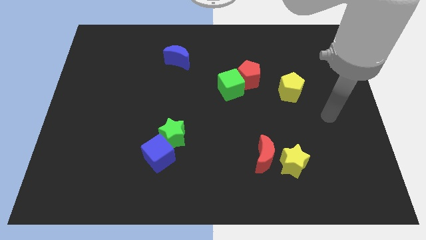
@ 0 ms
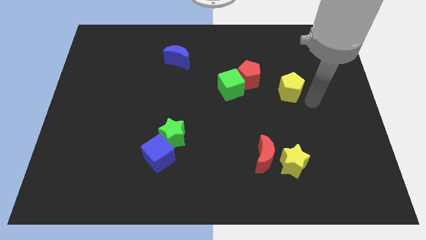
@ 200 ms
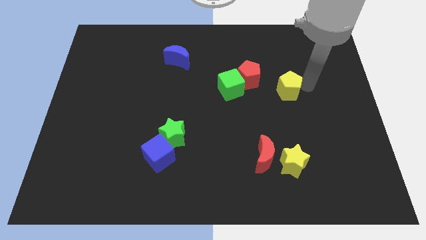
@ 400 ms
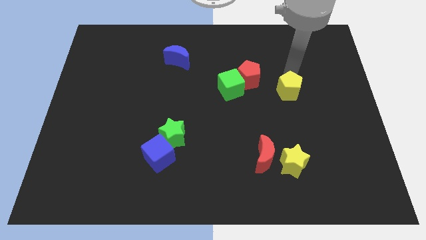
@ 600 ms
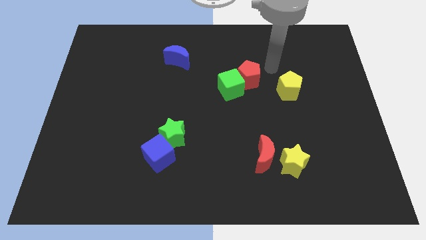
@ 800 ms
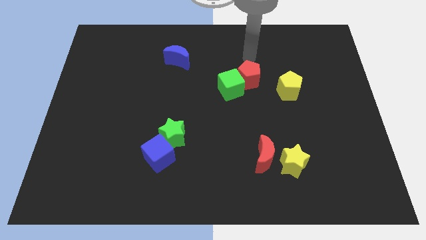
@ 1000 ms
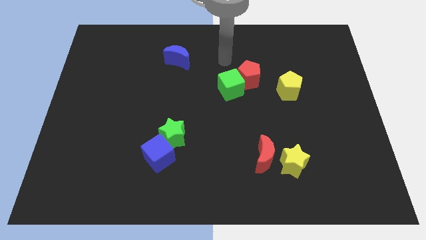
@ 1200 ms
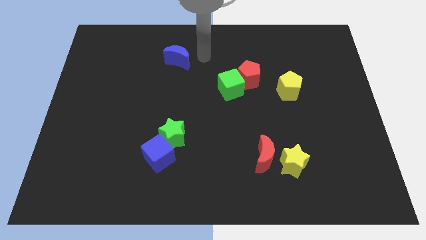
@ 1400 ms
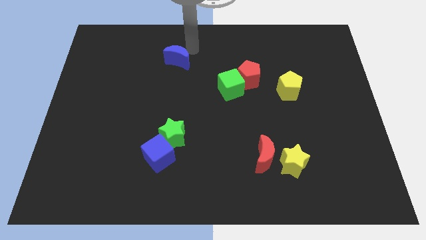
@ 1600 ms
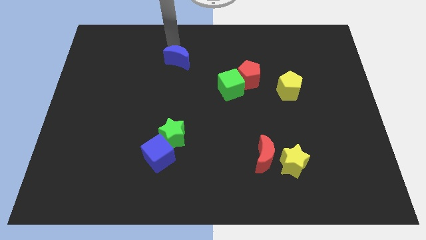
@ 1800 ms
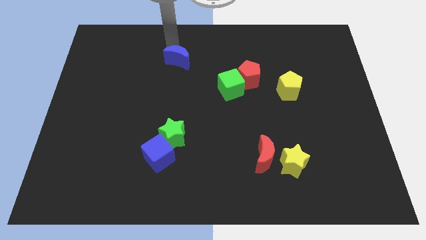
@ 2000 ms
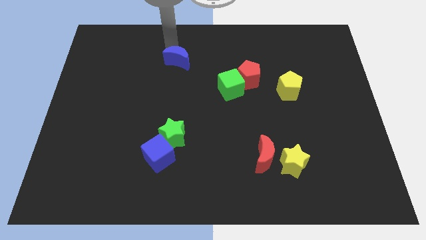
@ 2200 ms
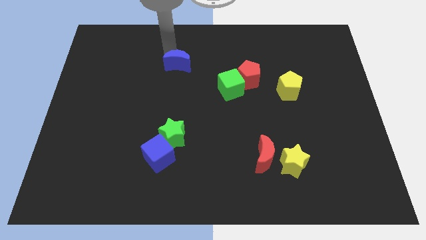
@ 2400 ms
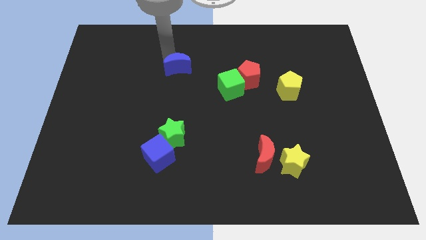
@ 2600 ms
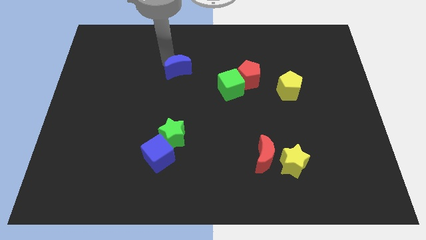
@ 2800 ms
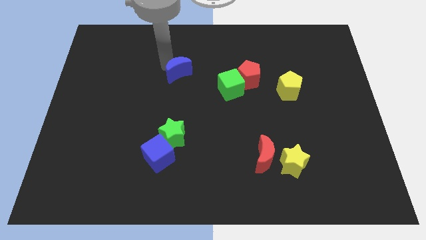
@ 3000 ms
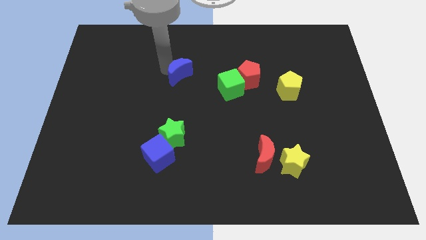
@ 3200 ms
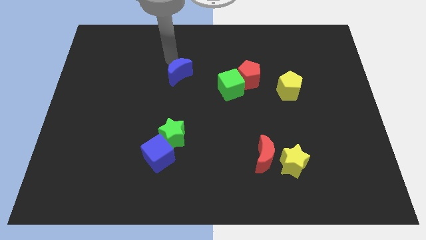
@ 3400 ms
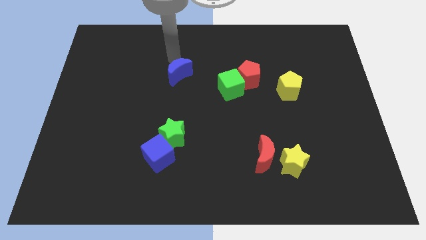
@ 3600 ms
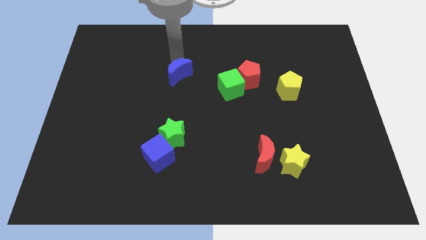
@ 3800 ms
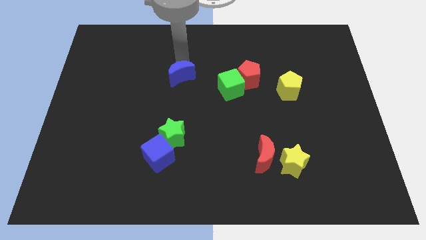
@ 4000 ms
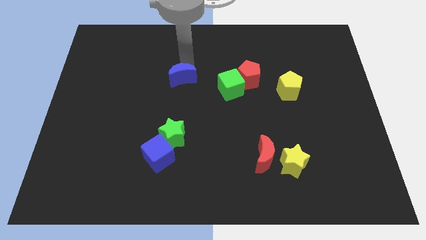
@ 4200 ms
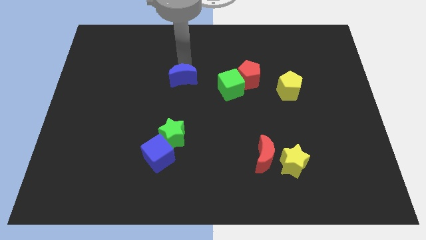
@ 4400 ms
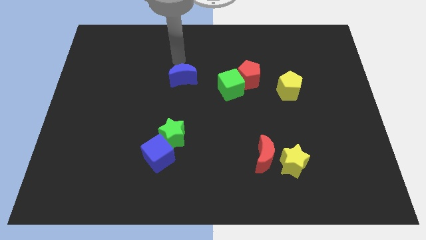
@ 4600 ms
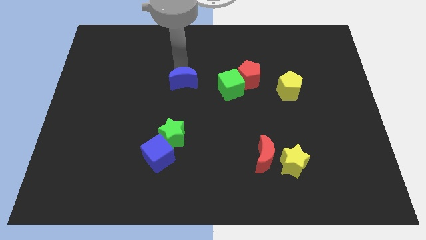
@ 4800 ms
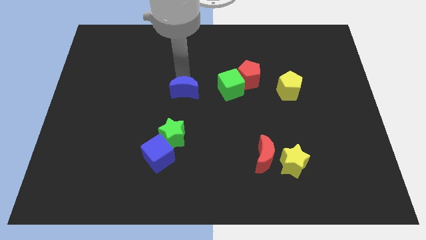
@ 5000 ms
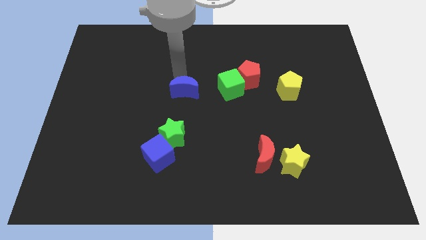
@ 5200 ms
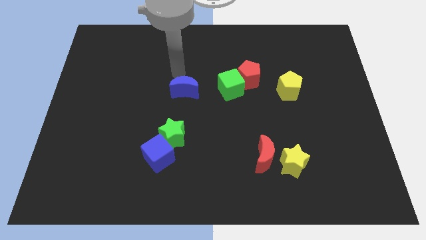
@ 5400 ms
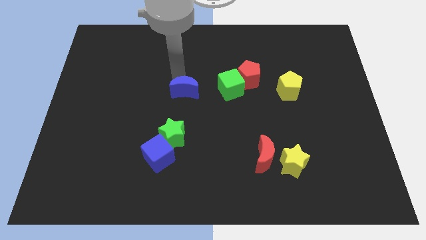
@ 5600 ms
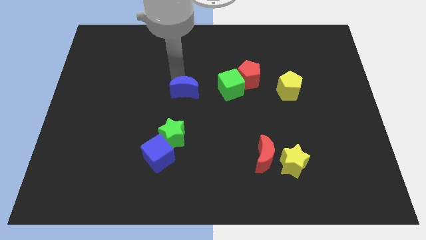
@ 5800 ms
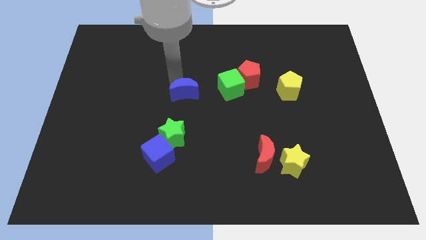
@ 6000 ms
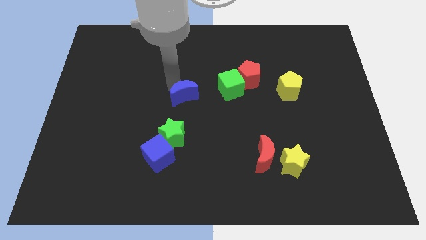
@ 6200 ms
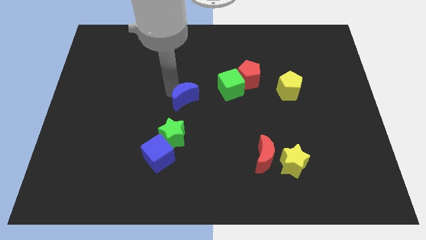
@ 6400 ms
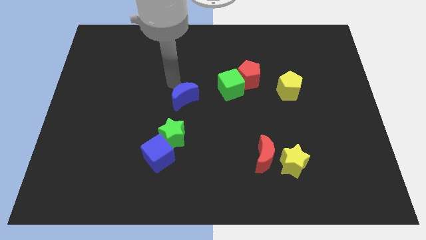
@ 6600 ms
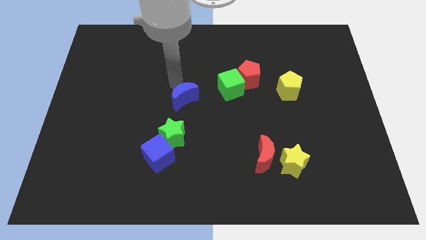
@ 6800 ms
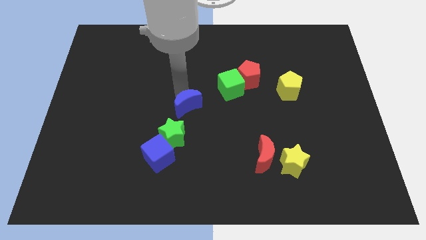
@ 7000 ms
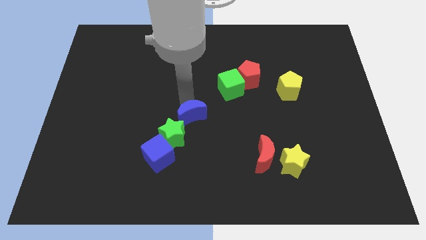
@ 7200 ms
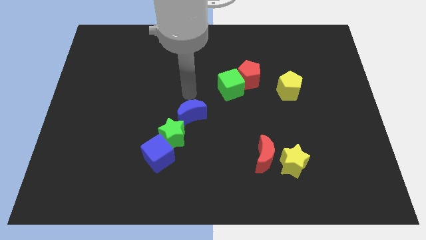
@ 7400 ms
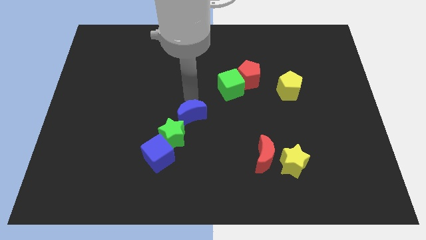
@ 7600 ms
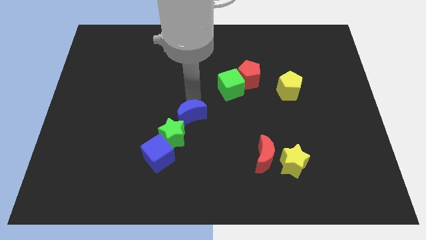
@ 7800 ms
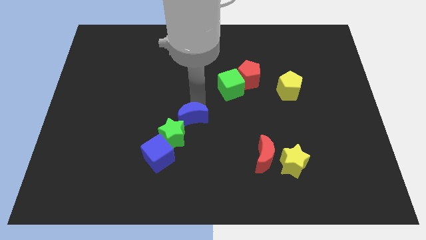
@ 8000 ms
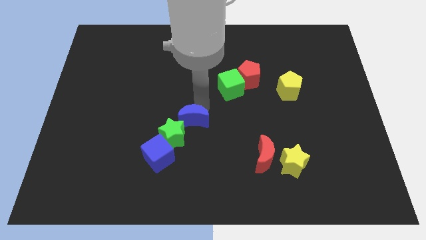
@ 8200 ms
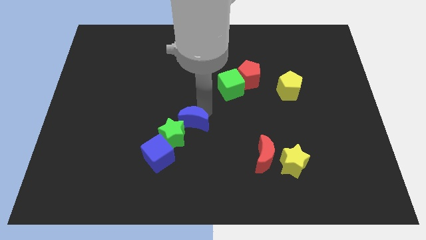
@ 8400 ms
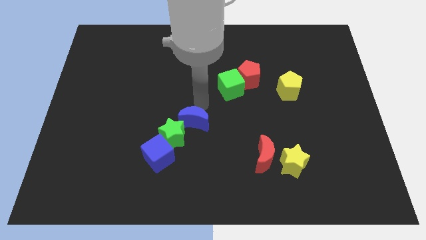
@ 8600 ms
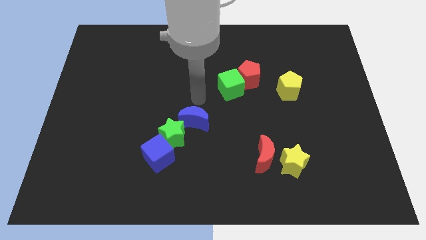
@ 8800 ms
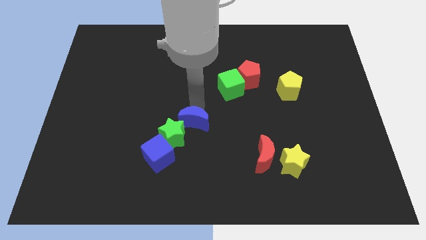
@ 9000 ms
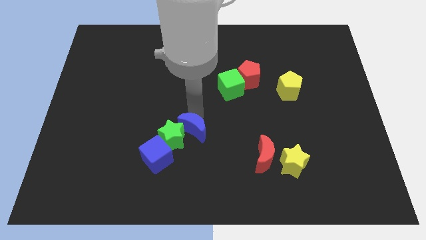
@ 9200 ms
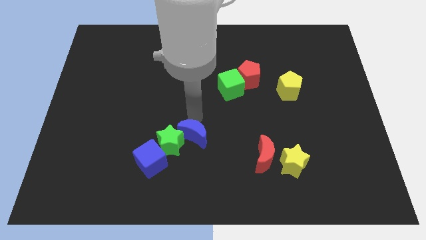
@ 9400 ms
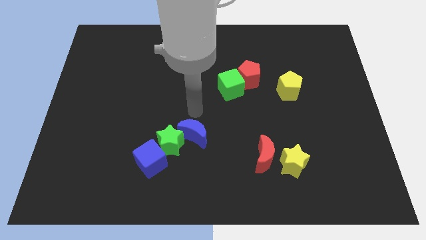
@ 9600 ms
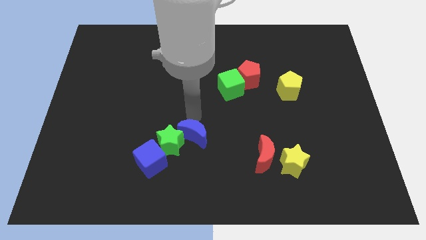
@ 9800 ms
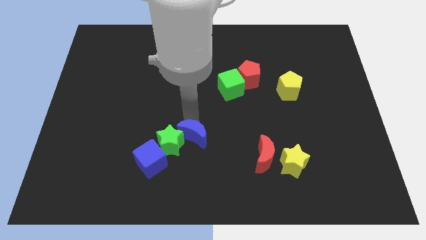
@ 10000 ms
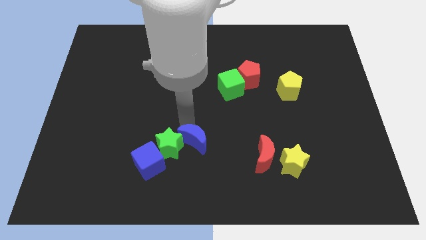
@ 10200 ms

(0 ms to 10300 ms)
push the blue moon diagonally down and to the right of the green star

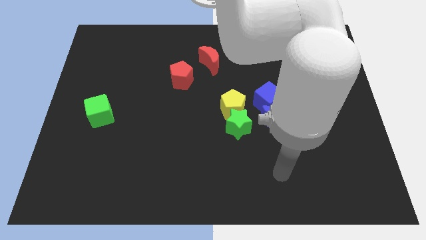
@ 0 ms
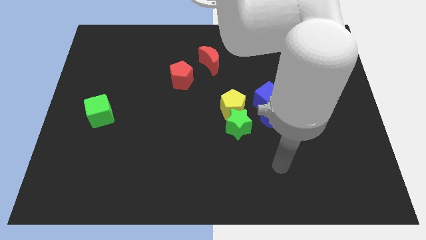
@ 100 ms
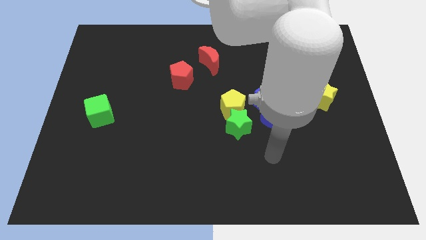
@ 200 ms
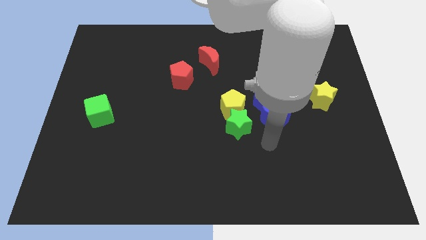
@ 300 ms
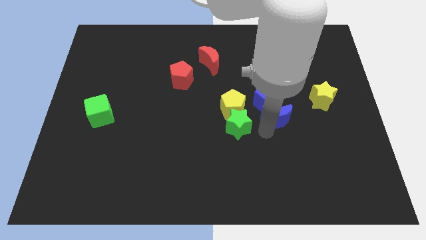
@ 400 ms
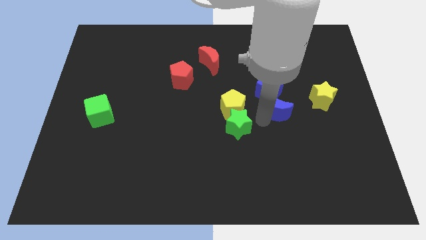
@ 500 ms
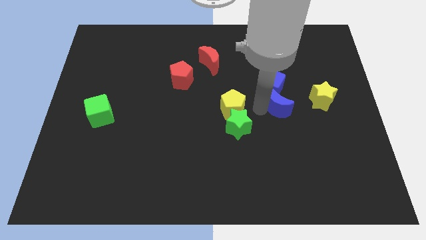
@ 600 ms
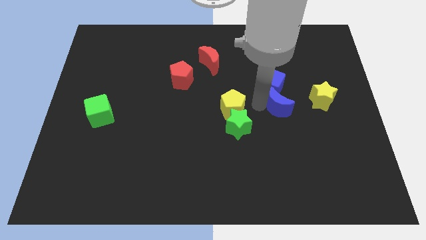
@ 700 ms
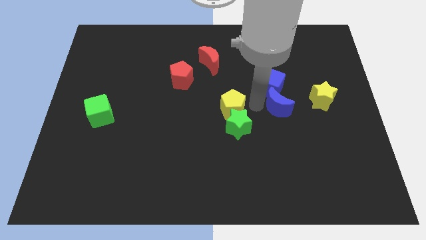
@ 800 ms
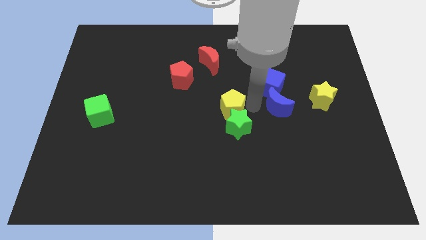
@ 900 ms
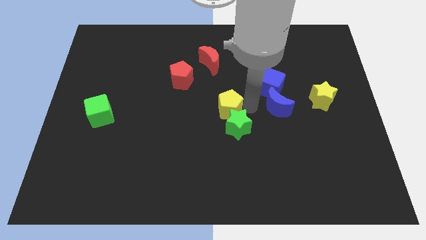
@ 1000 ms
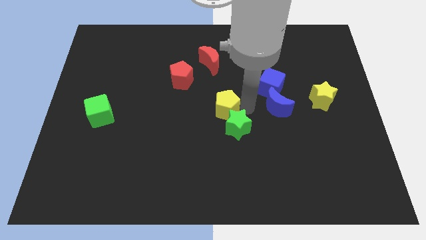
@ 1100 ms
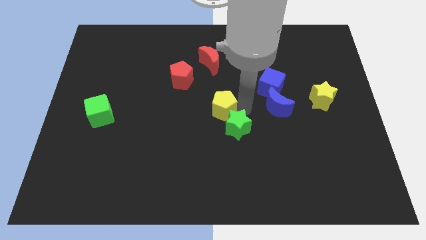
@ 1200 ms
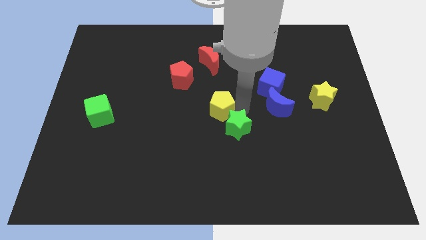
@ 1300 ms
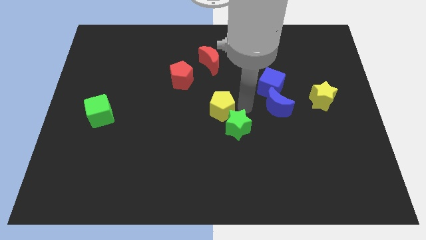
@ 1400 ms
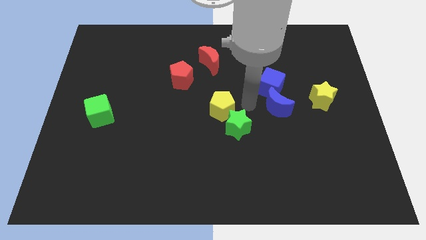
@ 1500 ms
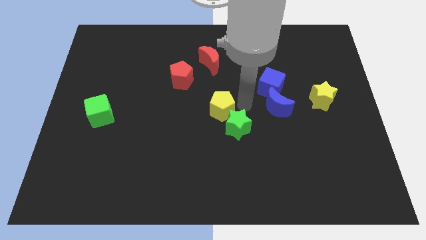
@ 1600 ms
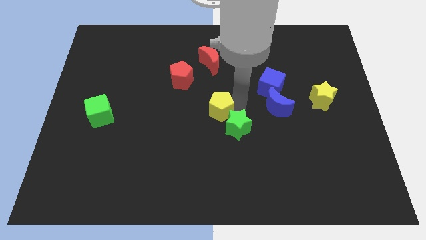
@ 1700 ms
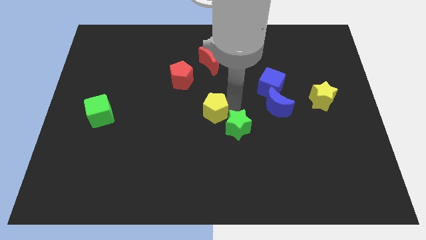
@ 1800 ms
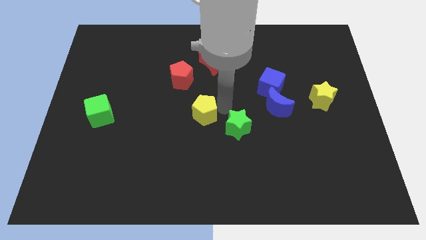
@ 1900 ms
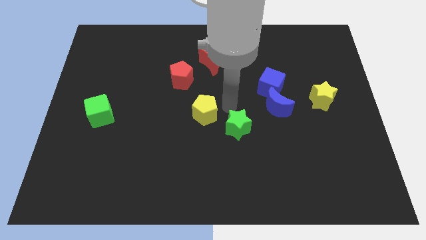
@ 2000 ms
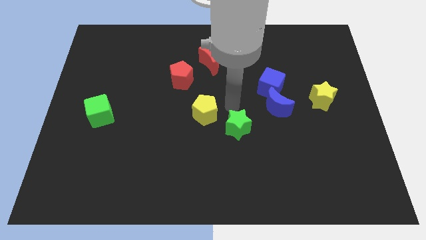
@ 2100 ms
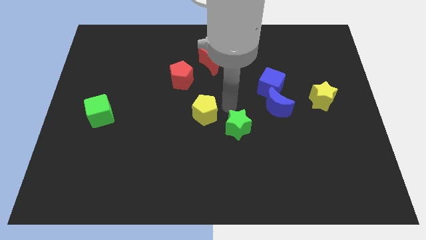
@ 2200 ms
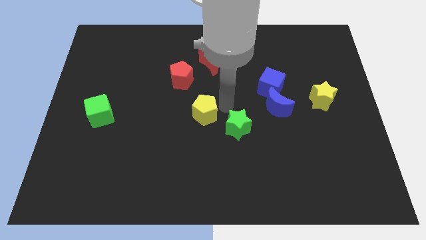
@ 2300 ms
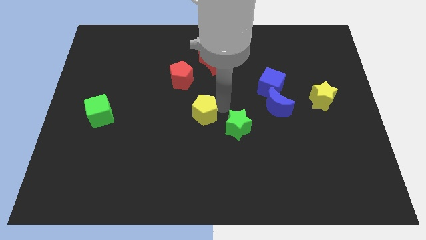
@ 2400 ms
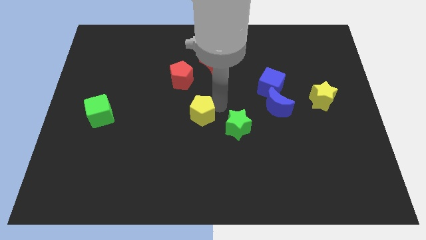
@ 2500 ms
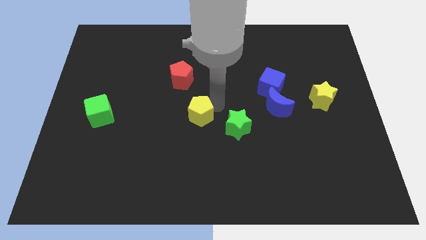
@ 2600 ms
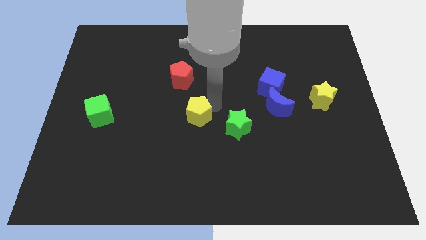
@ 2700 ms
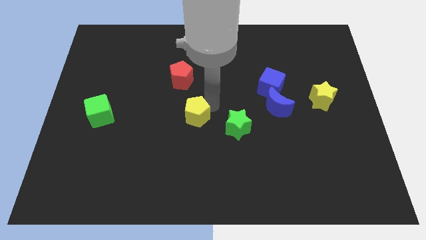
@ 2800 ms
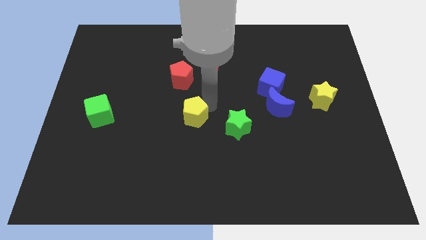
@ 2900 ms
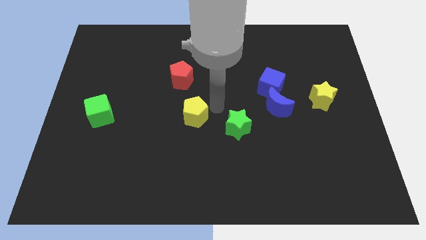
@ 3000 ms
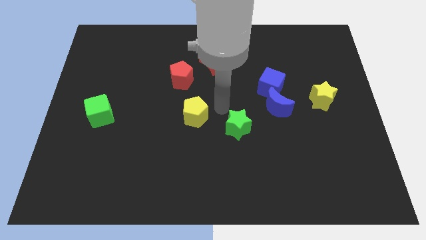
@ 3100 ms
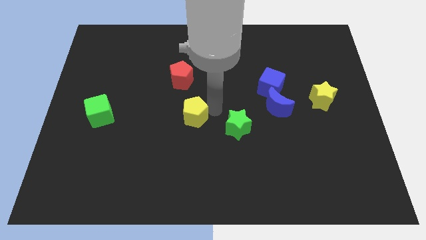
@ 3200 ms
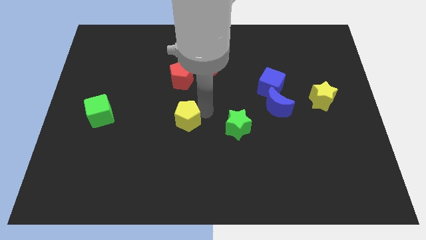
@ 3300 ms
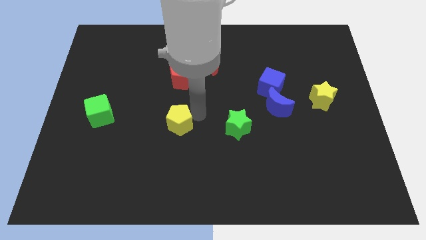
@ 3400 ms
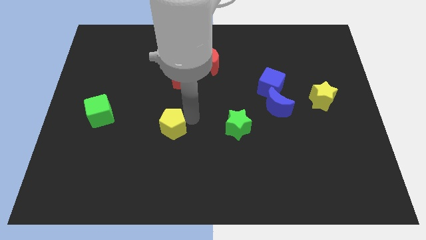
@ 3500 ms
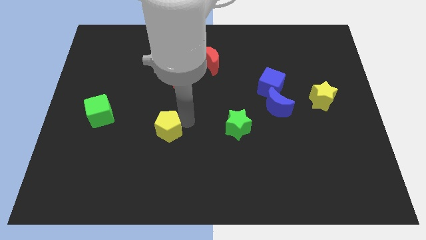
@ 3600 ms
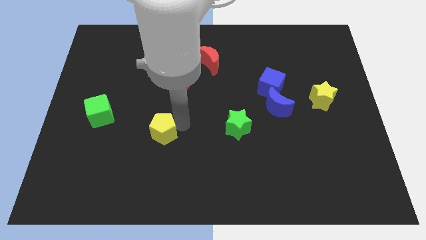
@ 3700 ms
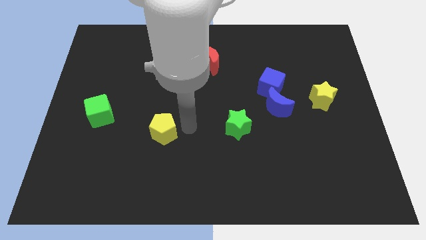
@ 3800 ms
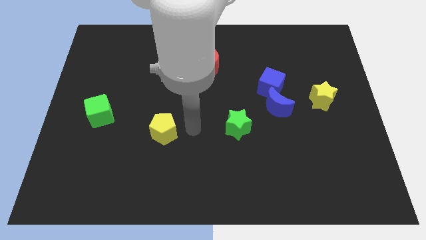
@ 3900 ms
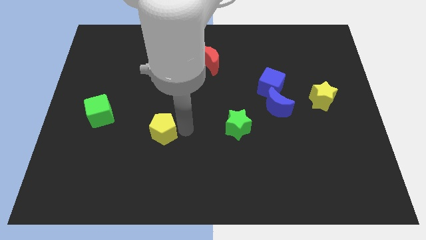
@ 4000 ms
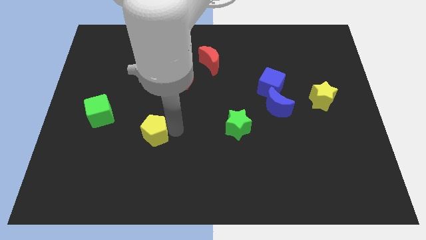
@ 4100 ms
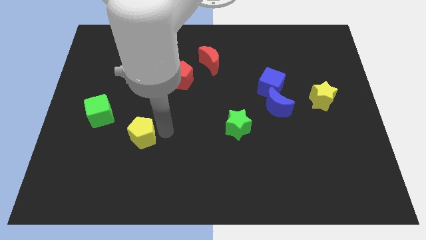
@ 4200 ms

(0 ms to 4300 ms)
put the yellow pentagon diagonally down and to the right of the green cube
